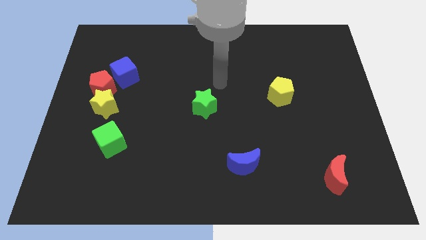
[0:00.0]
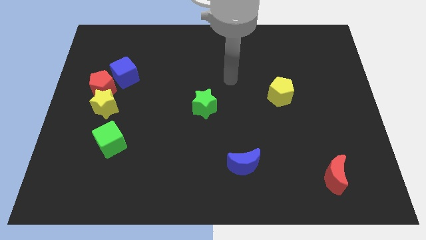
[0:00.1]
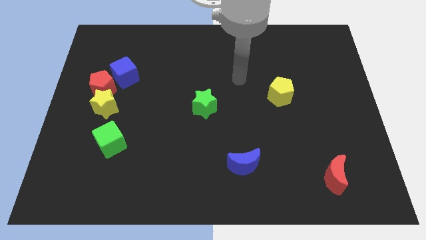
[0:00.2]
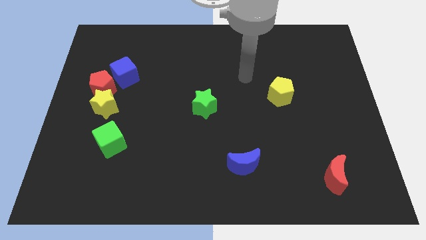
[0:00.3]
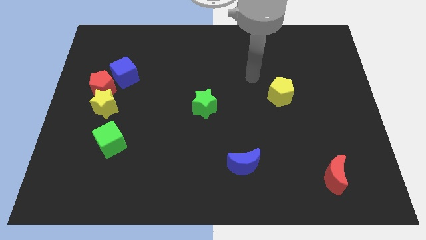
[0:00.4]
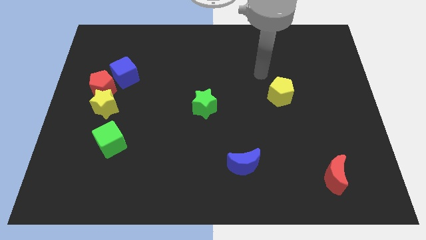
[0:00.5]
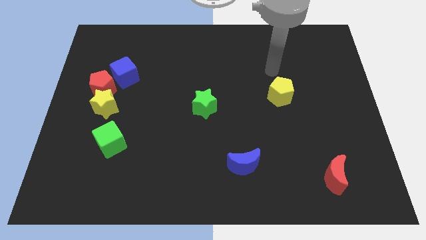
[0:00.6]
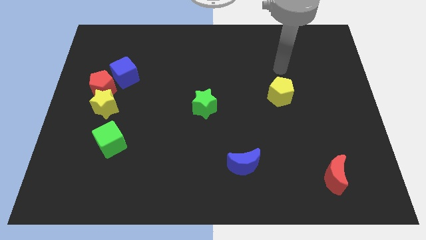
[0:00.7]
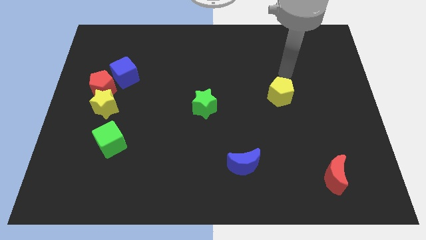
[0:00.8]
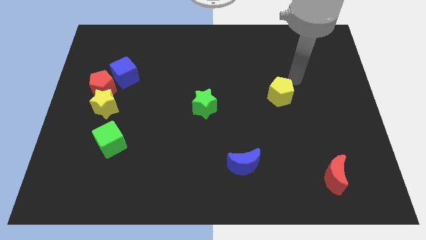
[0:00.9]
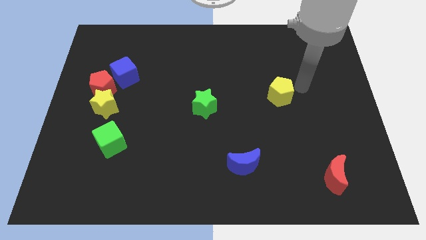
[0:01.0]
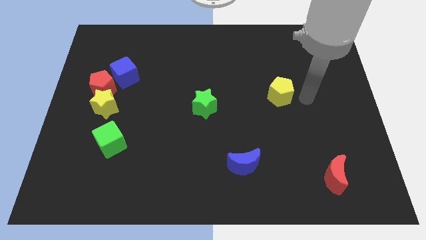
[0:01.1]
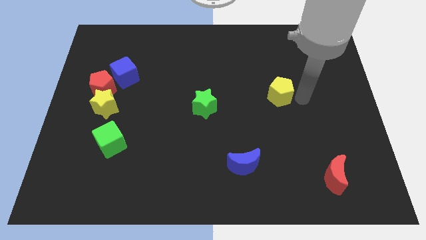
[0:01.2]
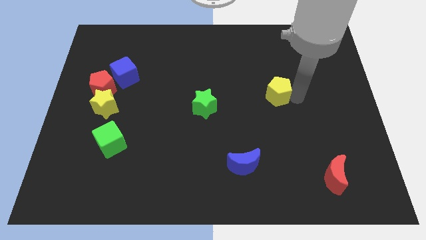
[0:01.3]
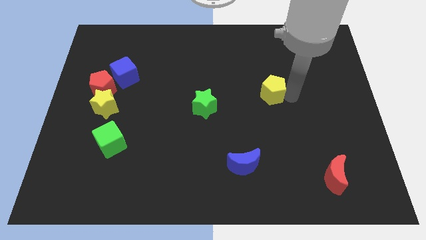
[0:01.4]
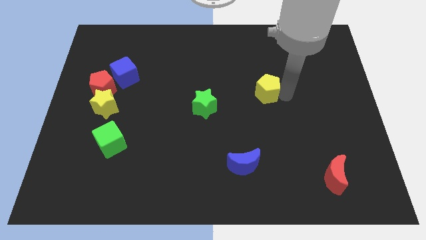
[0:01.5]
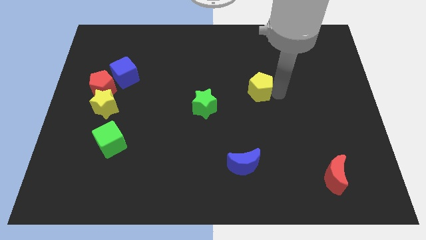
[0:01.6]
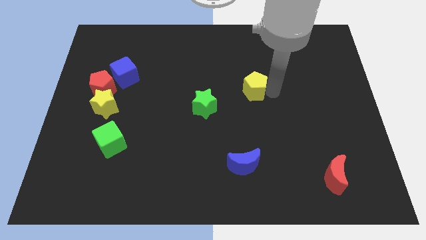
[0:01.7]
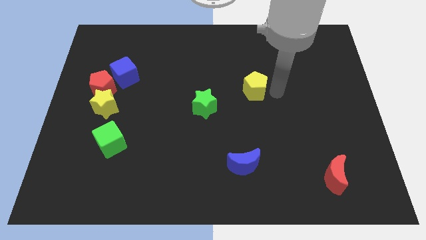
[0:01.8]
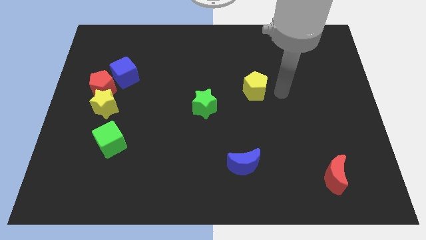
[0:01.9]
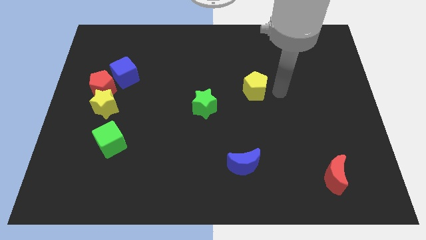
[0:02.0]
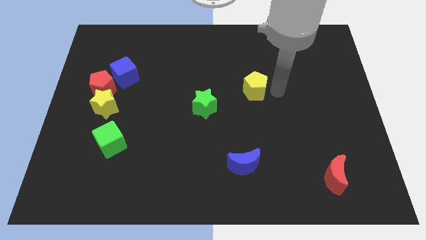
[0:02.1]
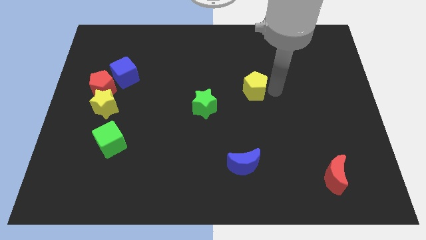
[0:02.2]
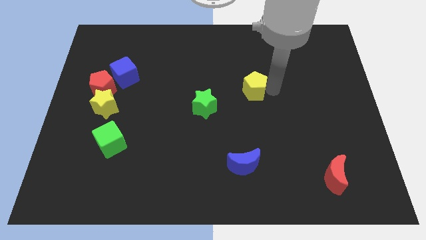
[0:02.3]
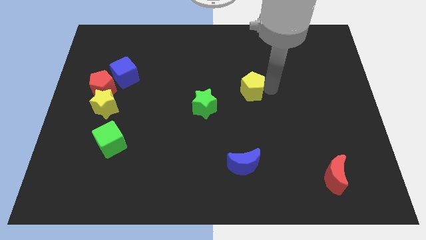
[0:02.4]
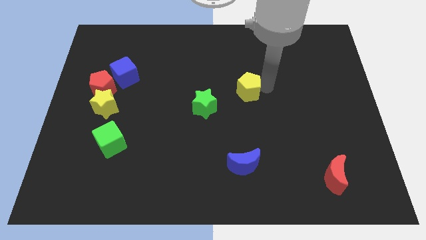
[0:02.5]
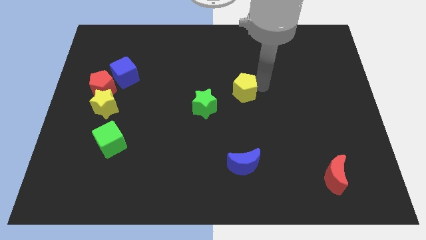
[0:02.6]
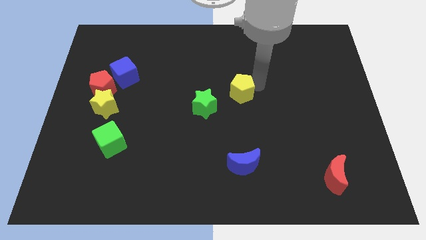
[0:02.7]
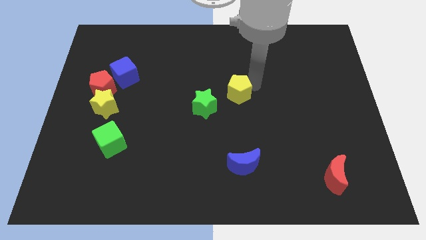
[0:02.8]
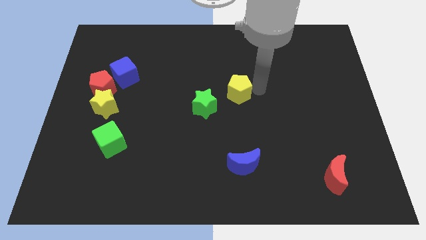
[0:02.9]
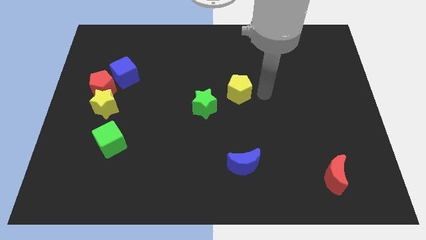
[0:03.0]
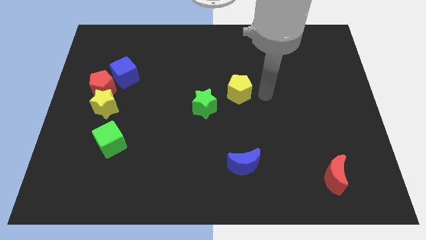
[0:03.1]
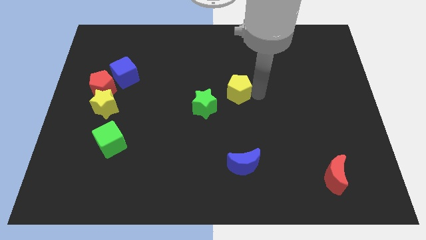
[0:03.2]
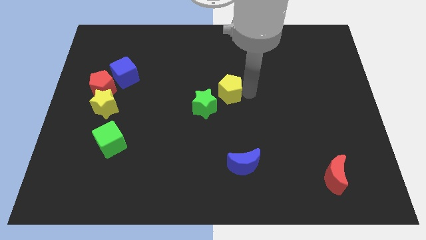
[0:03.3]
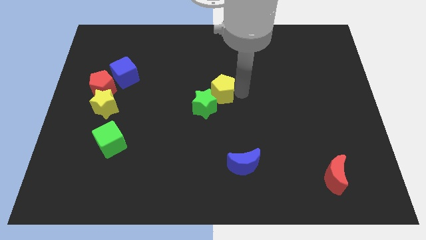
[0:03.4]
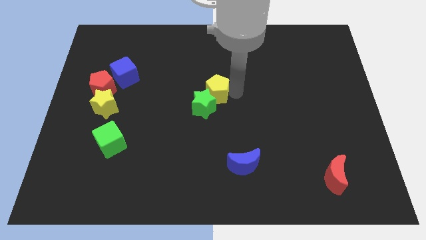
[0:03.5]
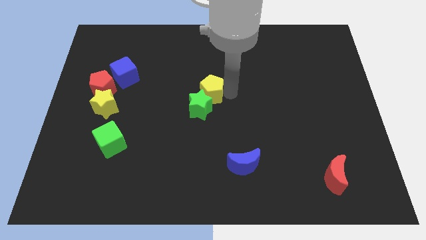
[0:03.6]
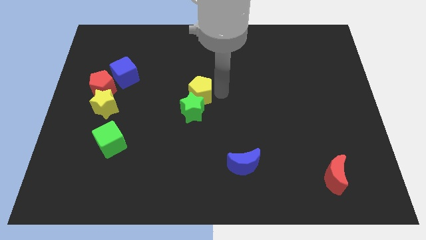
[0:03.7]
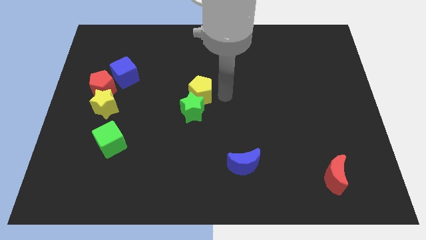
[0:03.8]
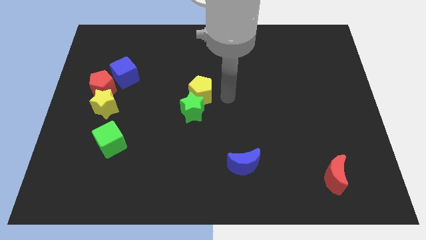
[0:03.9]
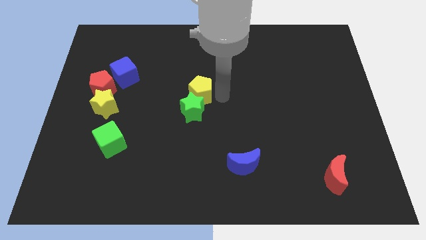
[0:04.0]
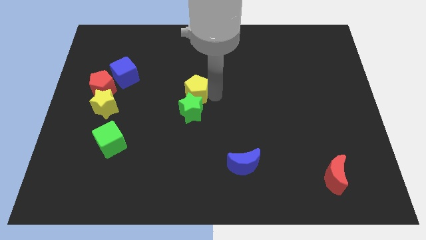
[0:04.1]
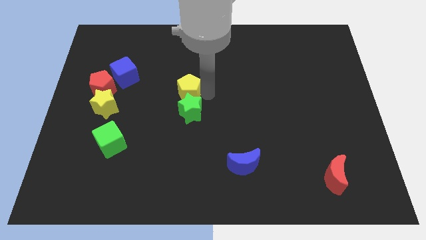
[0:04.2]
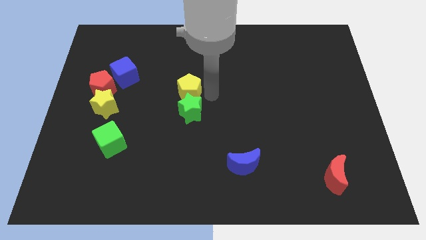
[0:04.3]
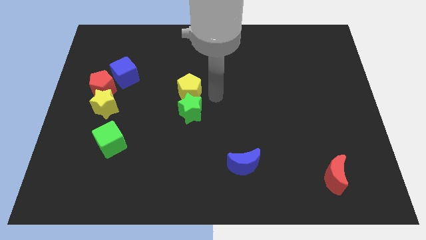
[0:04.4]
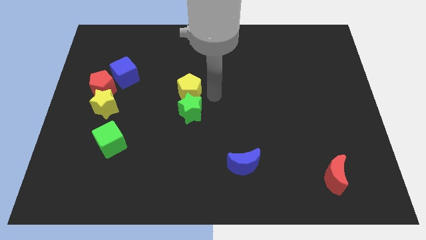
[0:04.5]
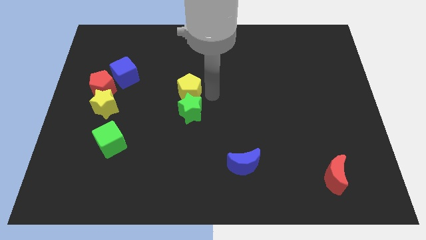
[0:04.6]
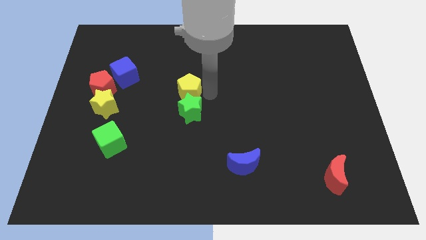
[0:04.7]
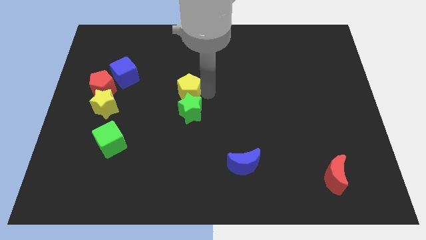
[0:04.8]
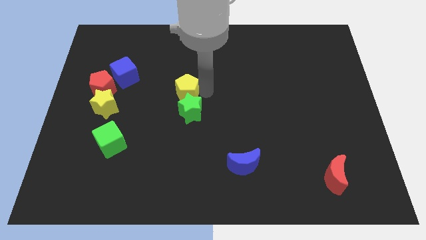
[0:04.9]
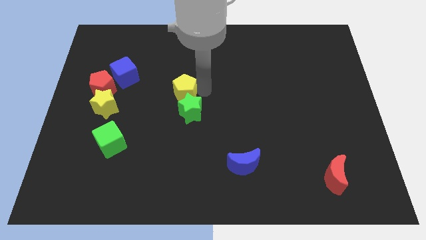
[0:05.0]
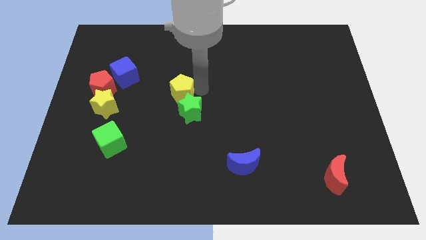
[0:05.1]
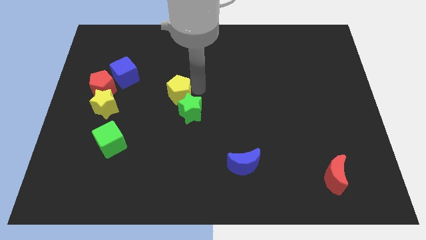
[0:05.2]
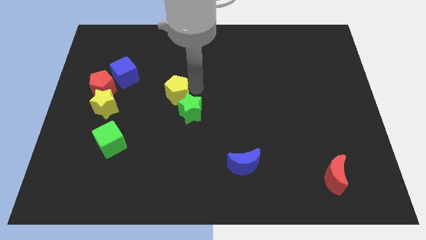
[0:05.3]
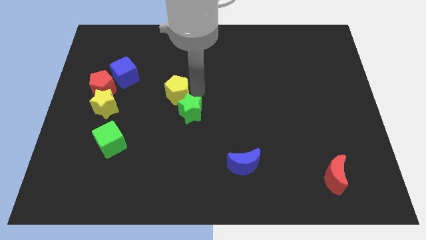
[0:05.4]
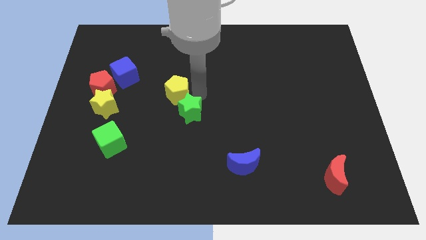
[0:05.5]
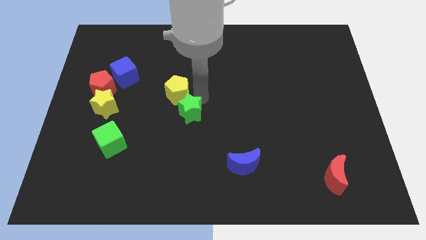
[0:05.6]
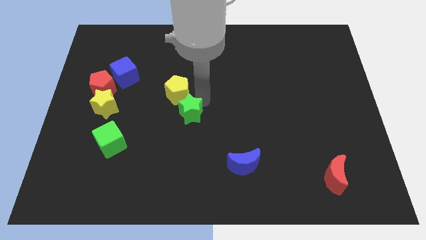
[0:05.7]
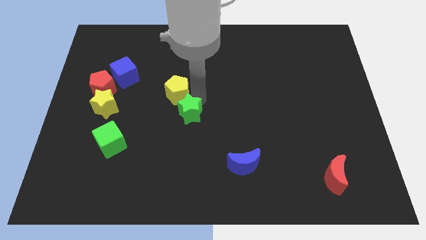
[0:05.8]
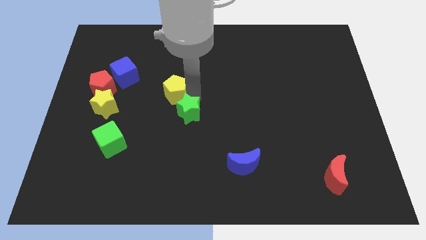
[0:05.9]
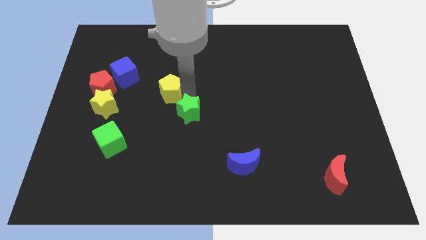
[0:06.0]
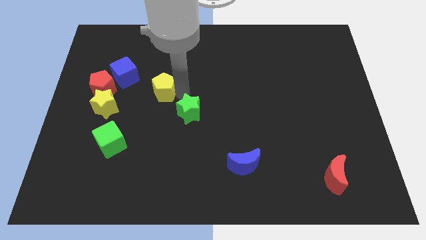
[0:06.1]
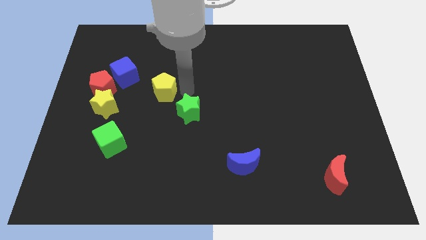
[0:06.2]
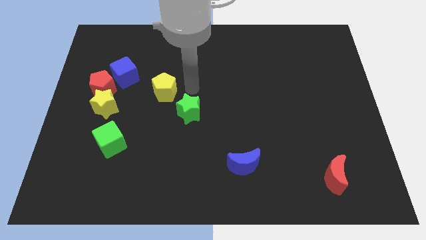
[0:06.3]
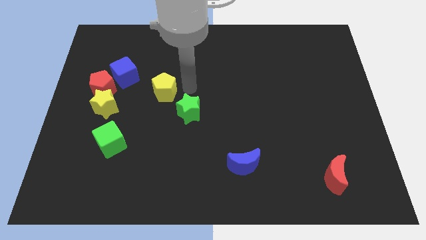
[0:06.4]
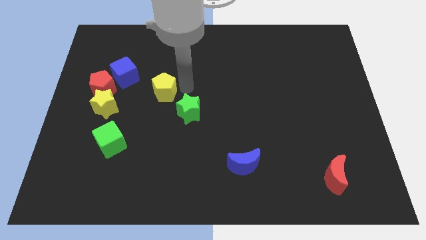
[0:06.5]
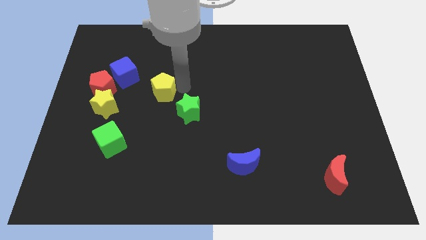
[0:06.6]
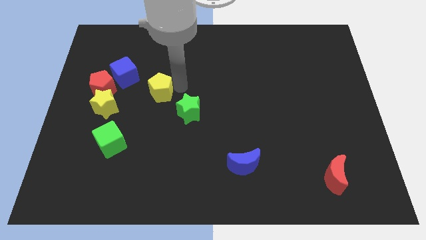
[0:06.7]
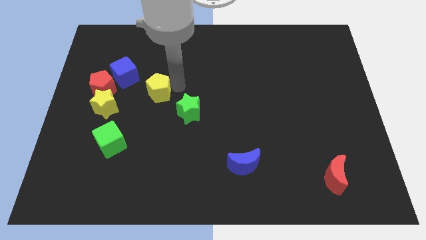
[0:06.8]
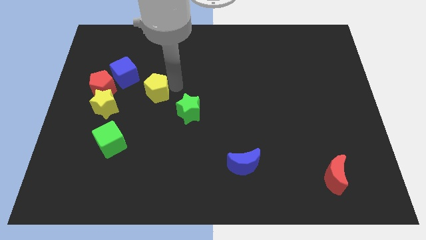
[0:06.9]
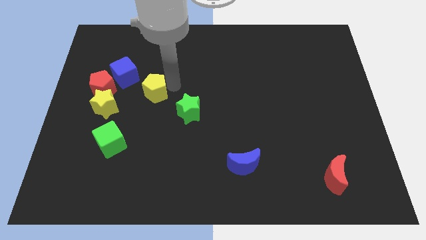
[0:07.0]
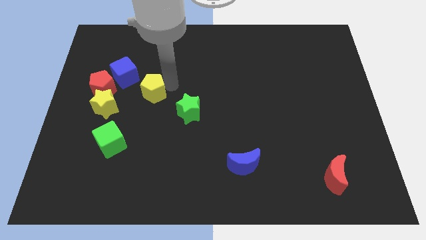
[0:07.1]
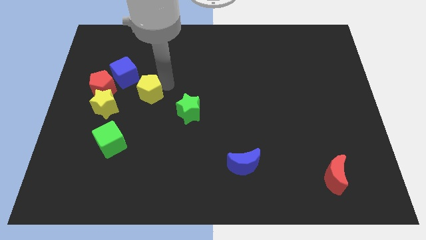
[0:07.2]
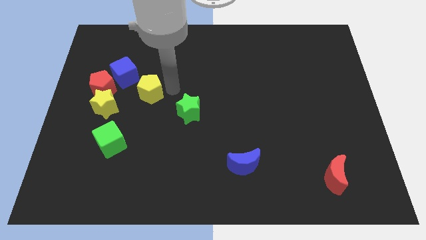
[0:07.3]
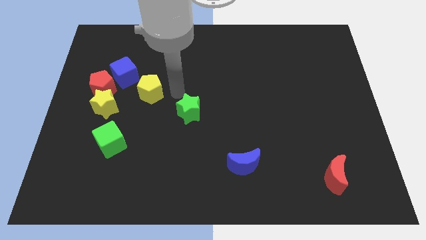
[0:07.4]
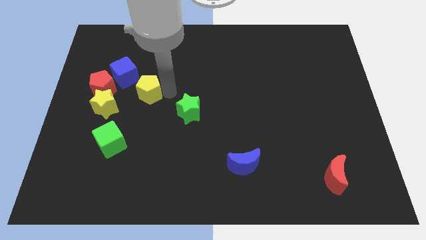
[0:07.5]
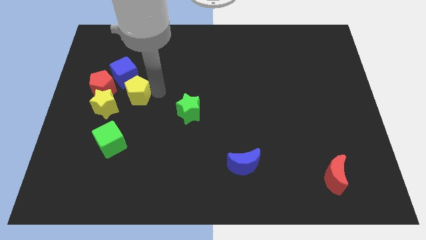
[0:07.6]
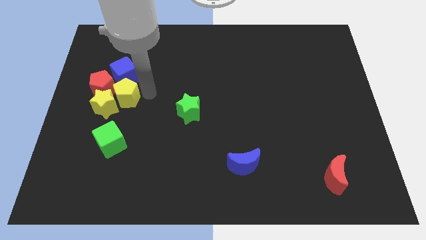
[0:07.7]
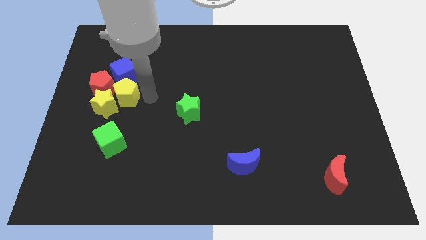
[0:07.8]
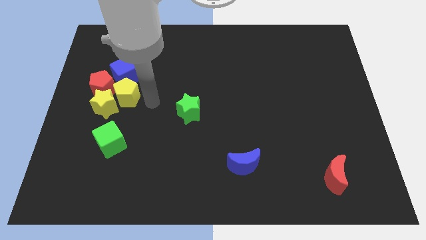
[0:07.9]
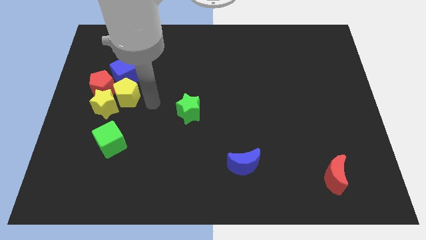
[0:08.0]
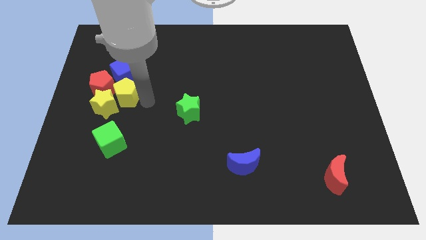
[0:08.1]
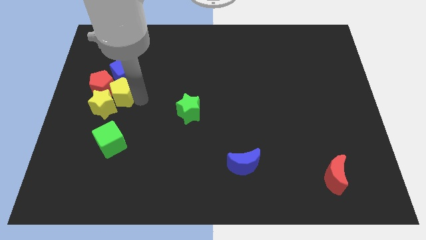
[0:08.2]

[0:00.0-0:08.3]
slide the yellow pentagon close to the red pentagon
